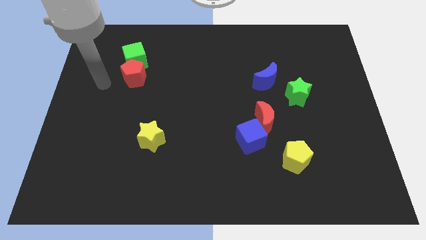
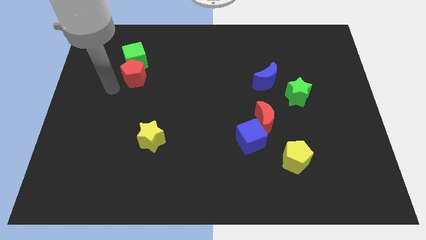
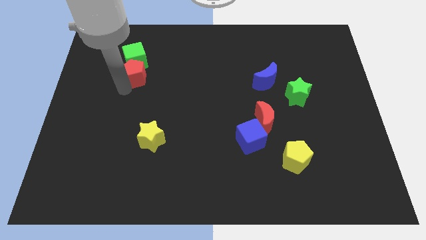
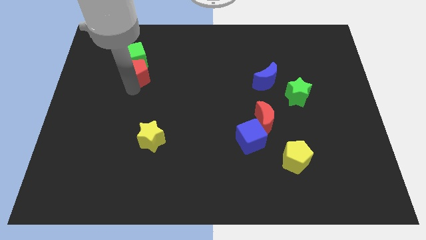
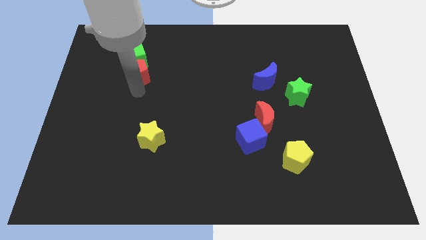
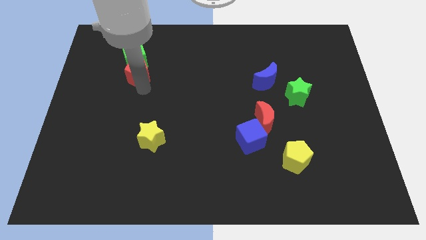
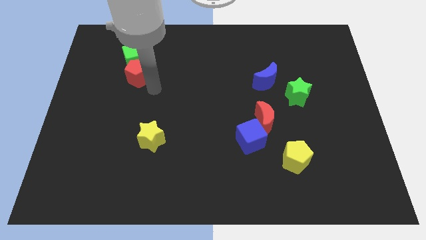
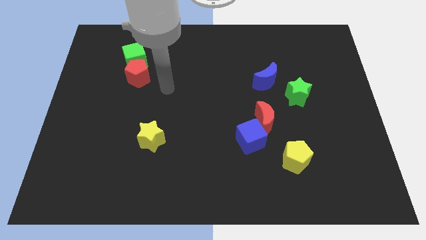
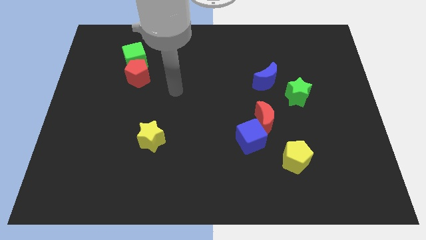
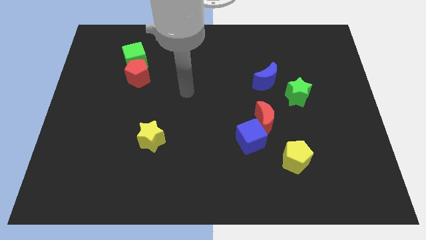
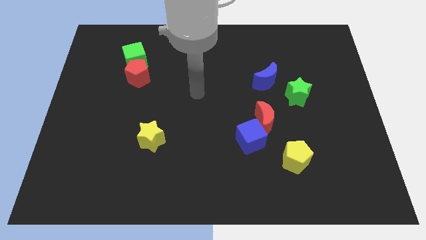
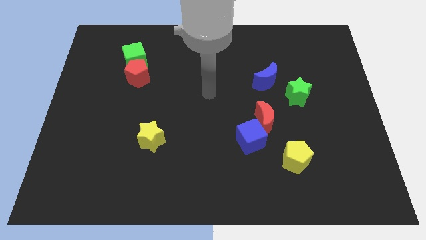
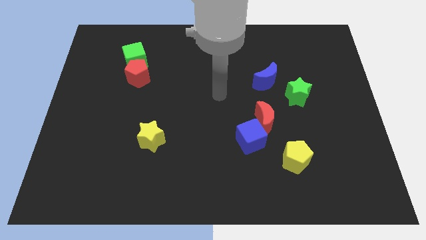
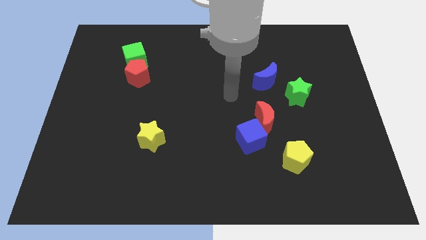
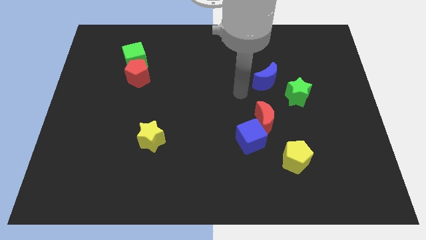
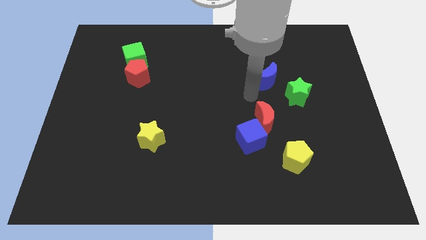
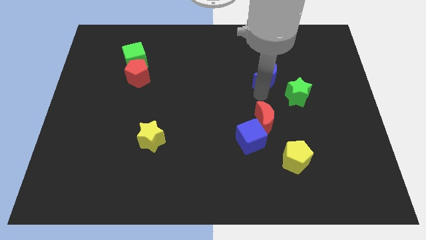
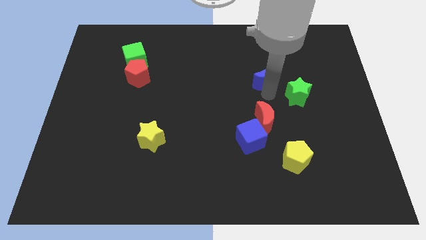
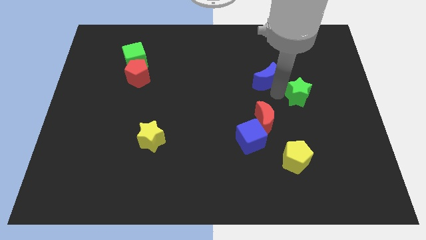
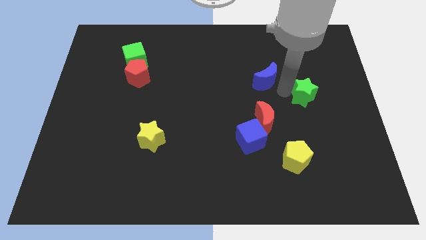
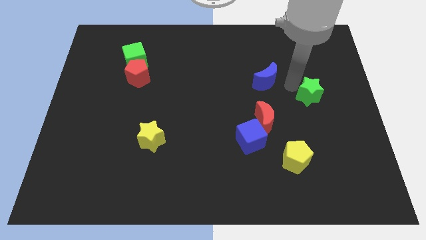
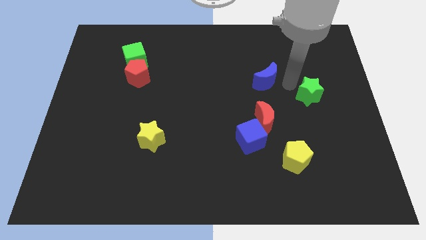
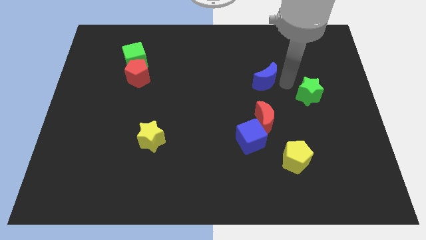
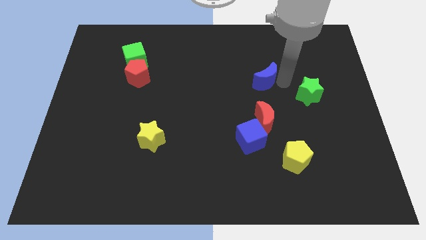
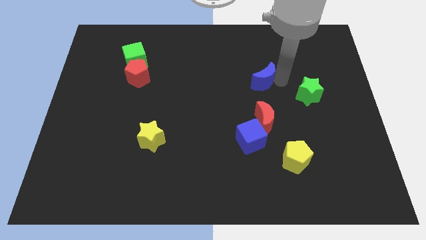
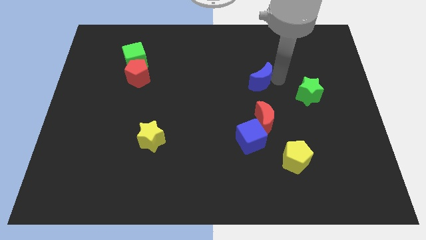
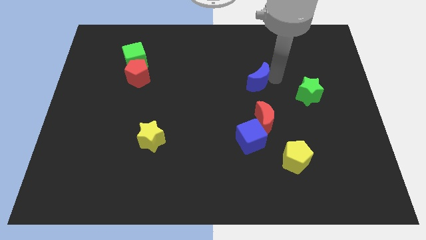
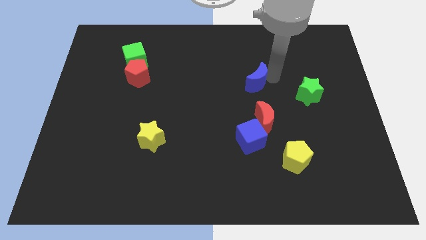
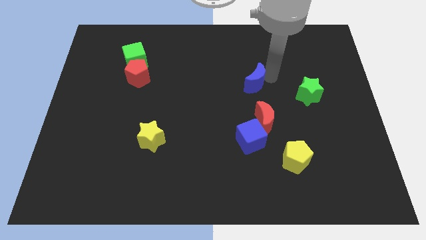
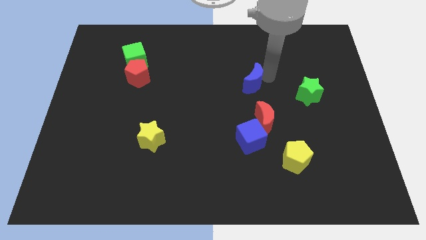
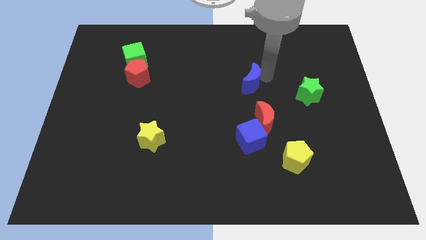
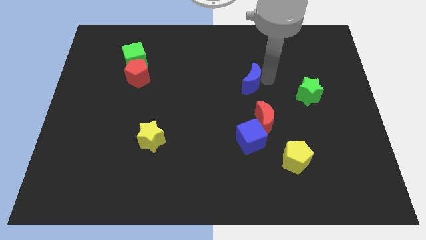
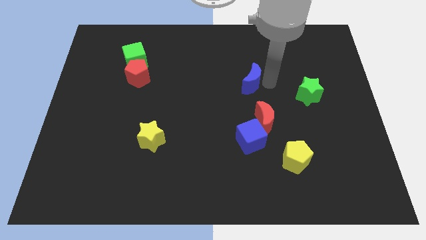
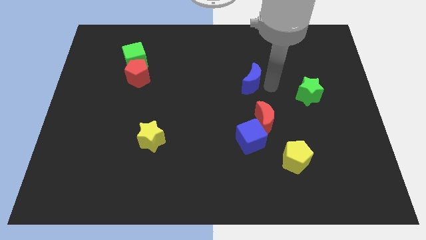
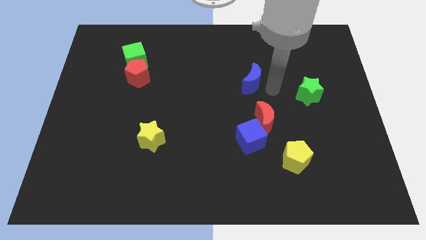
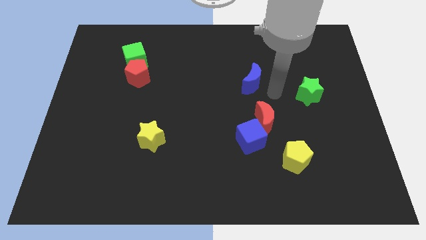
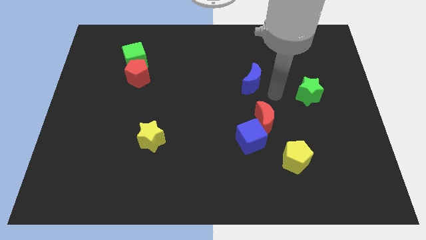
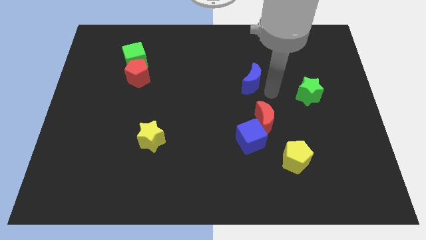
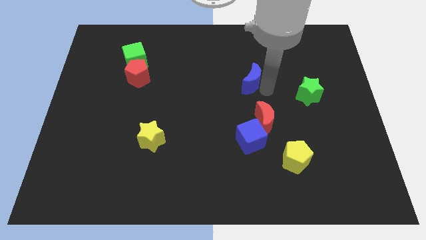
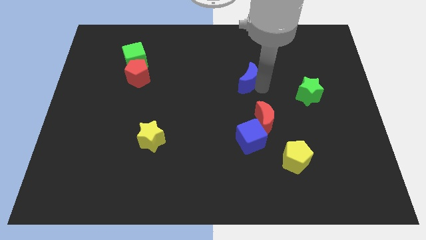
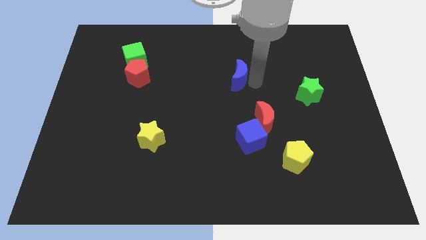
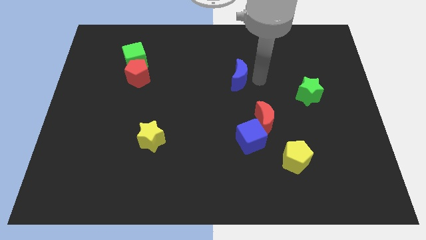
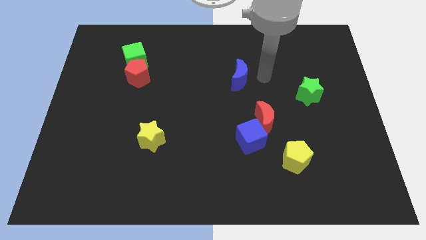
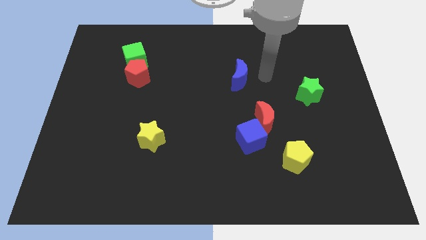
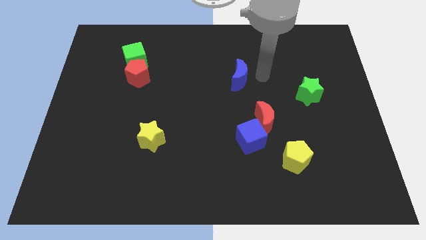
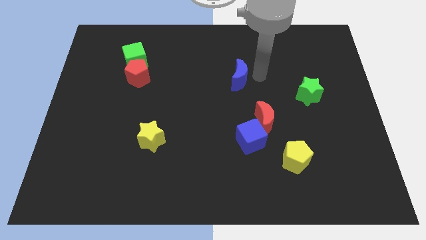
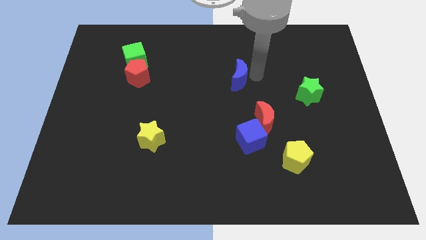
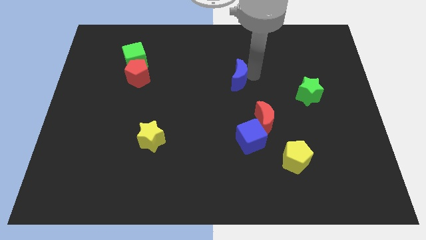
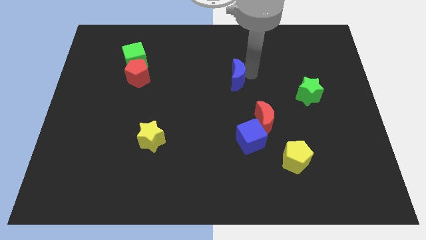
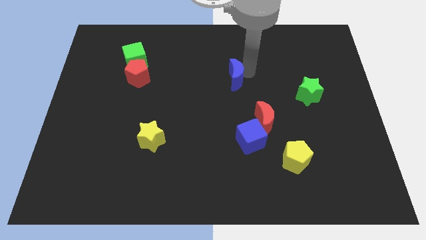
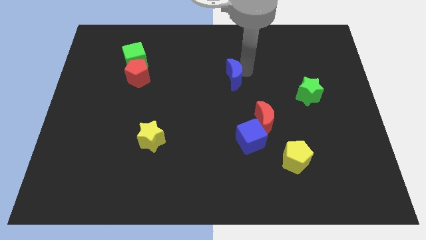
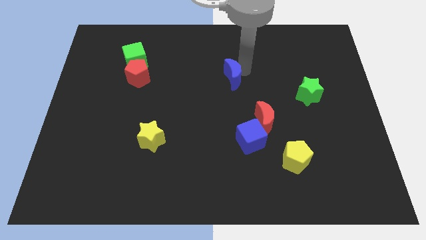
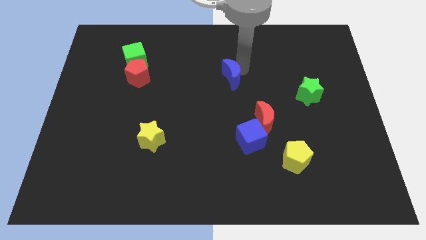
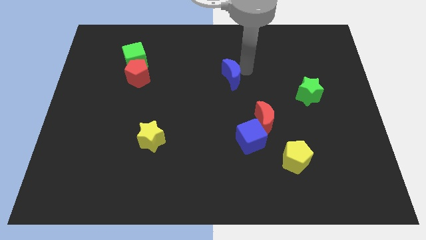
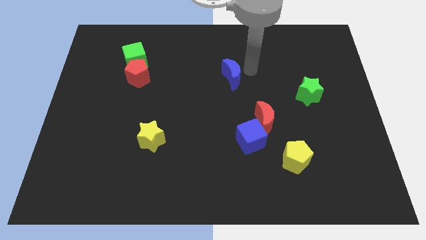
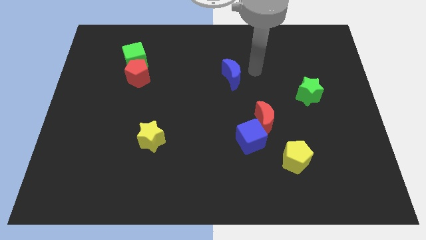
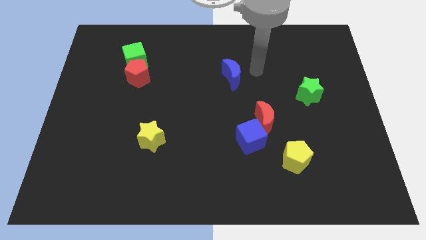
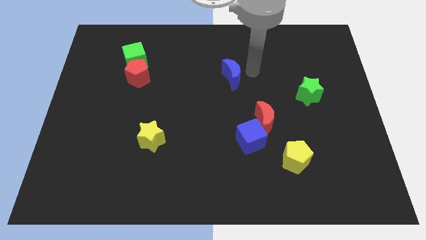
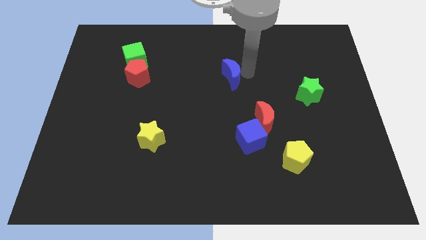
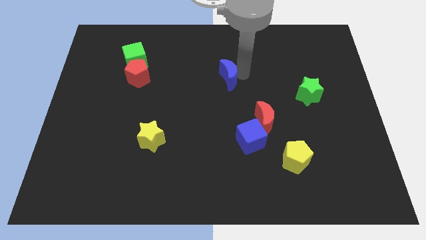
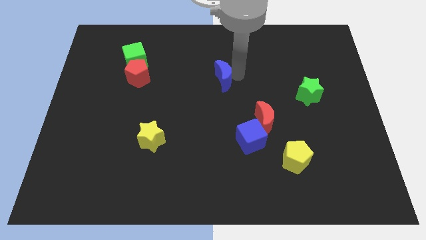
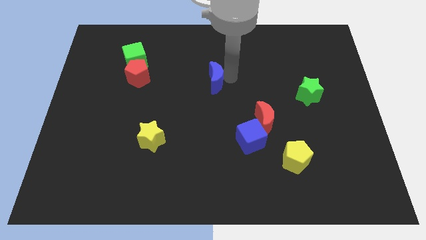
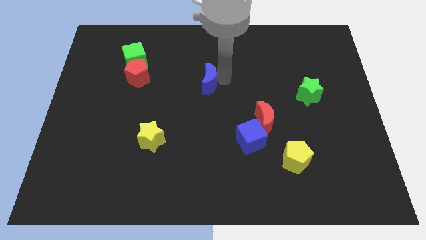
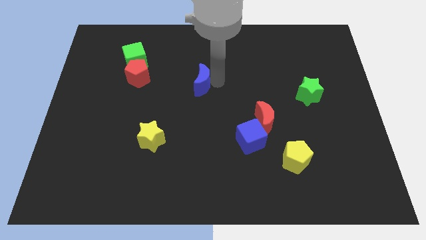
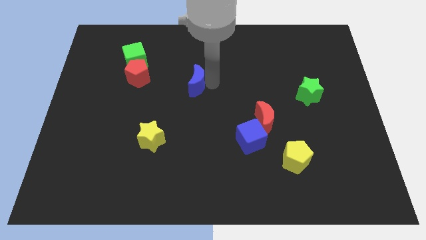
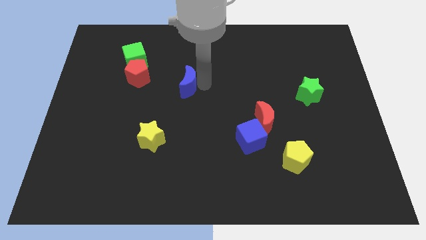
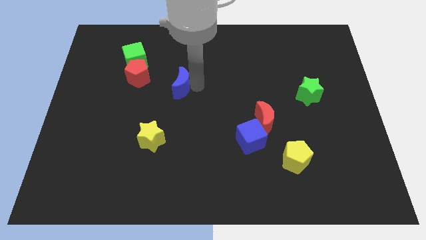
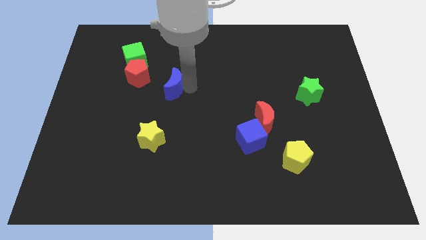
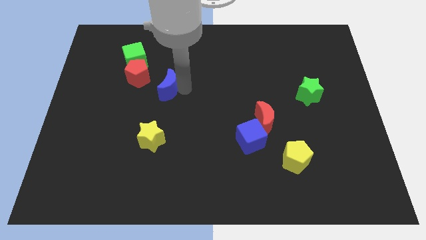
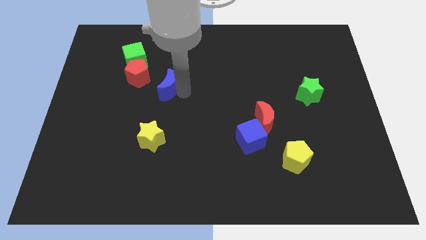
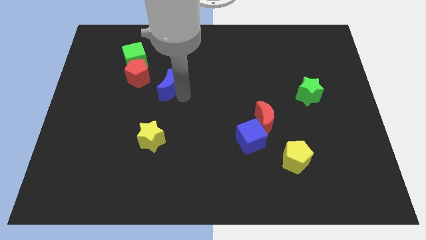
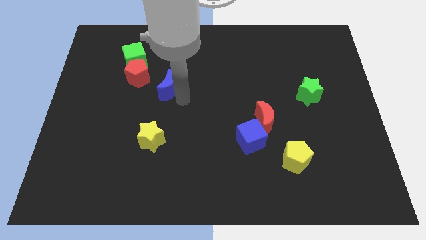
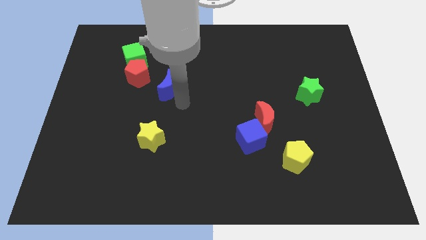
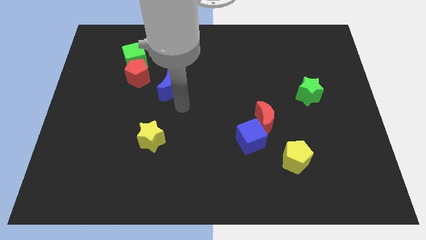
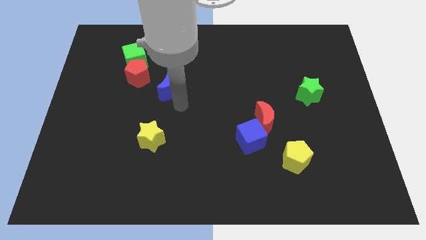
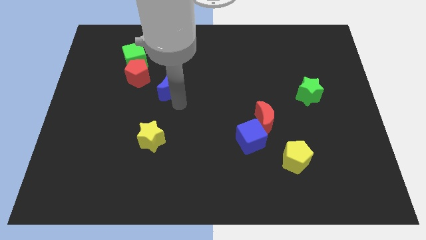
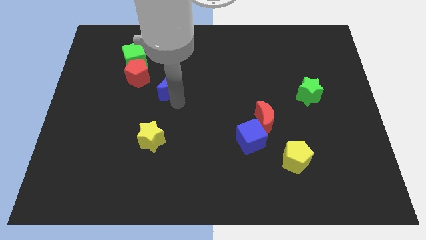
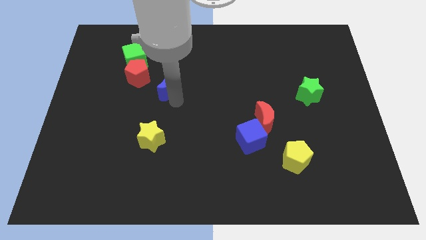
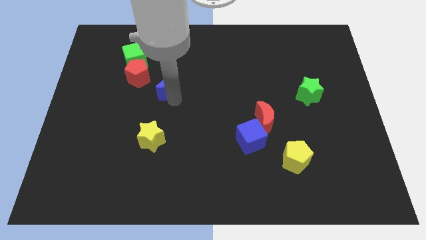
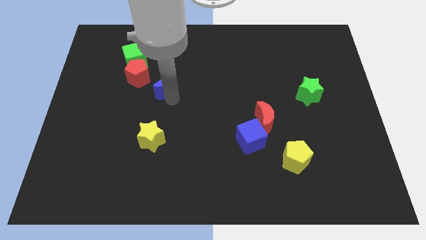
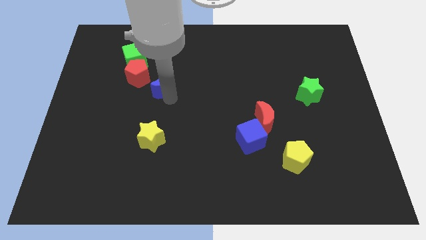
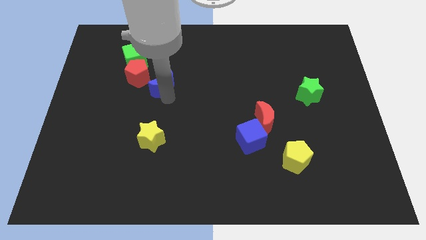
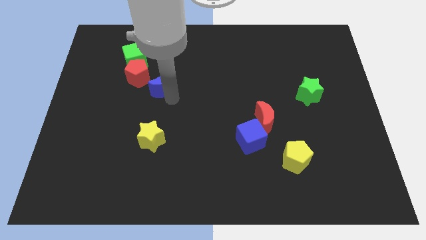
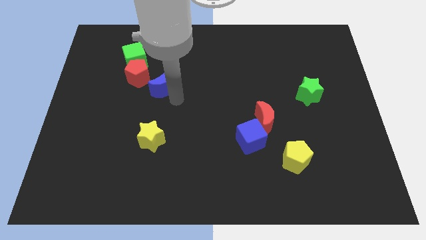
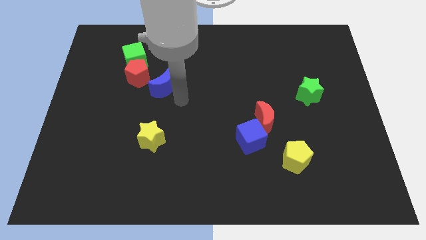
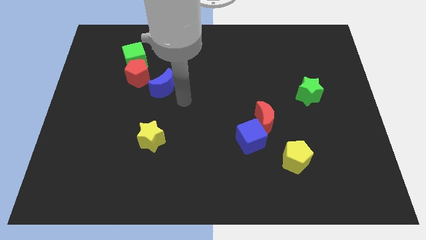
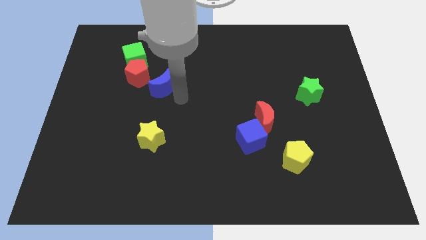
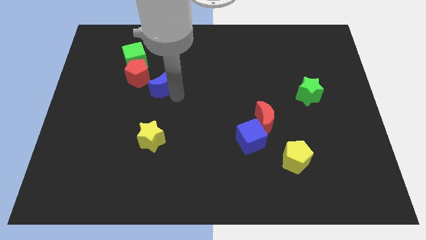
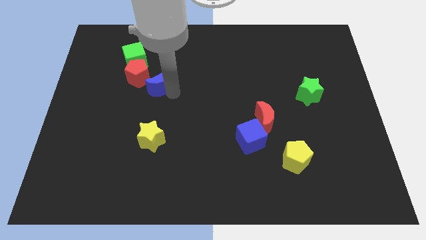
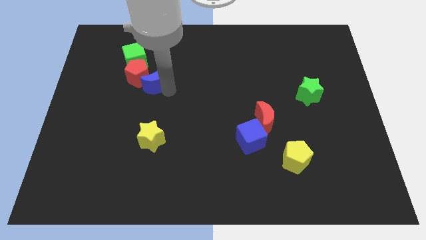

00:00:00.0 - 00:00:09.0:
put the blue moon to the red pentagon
